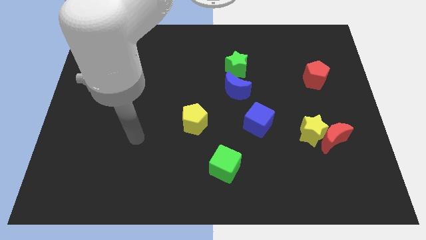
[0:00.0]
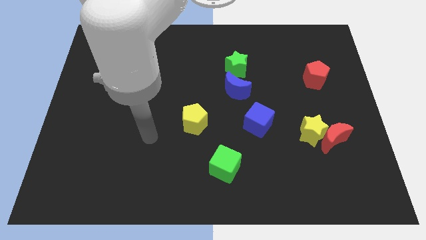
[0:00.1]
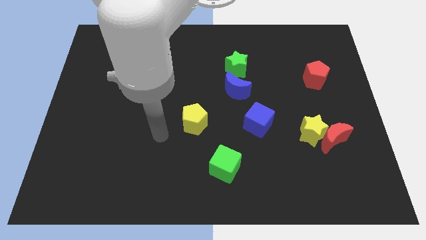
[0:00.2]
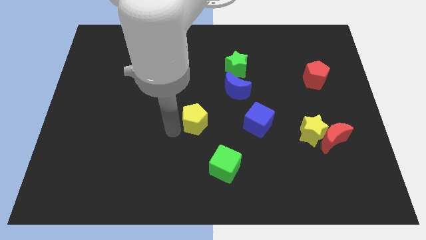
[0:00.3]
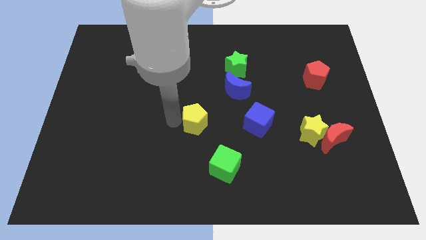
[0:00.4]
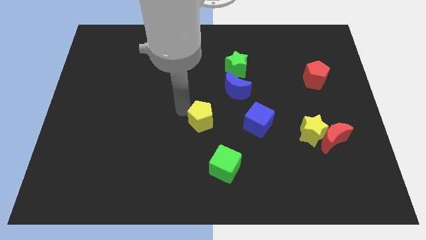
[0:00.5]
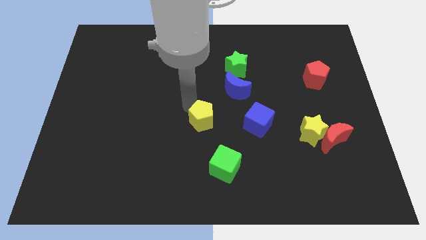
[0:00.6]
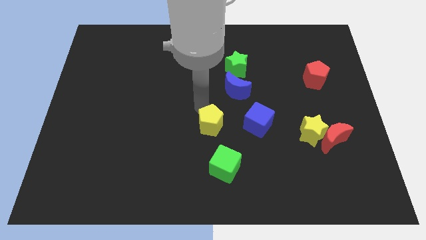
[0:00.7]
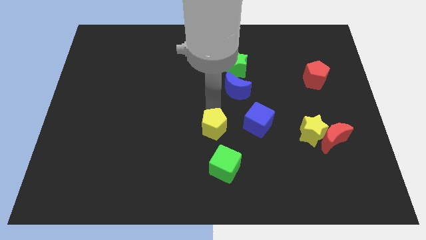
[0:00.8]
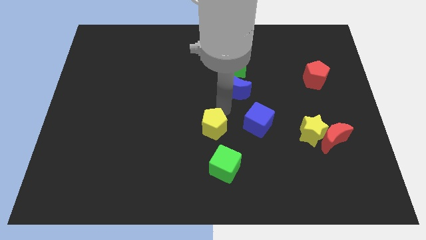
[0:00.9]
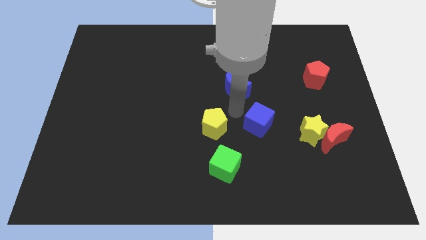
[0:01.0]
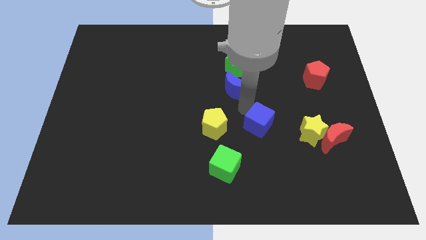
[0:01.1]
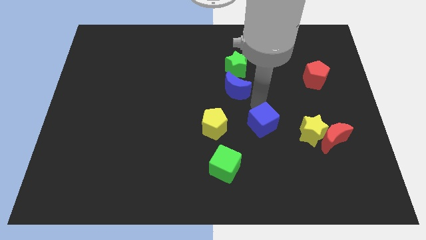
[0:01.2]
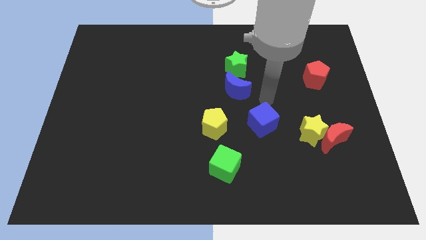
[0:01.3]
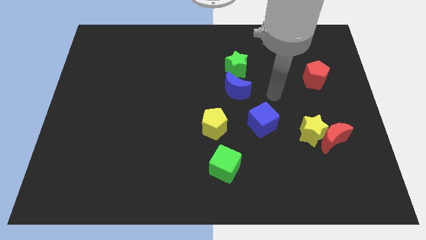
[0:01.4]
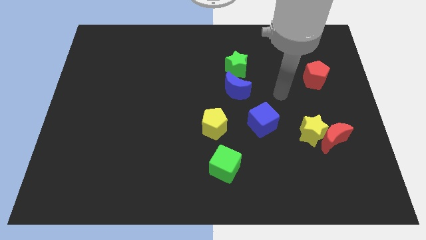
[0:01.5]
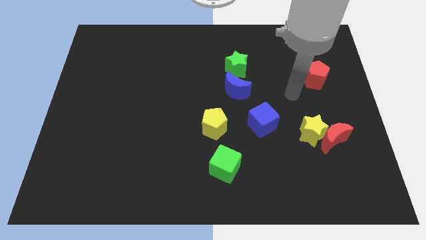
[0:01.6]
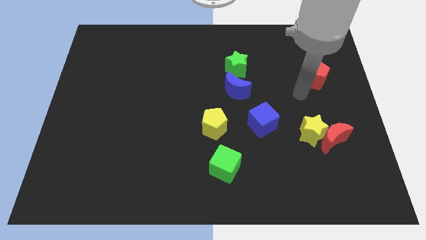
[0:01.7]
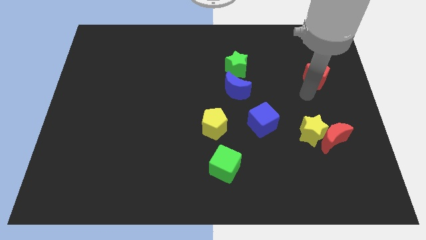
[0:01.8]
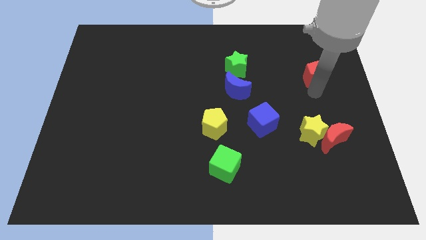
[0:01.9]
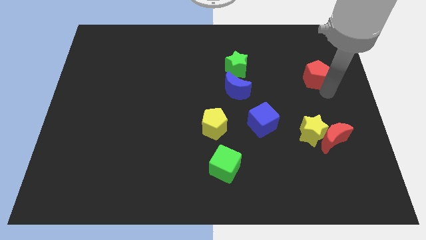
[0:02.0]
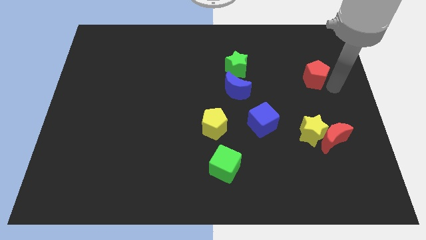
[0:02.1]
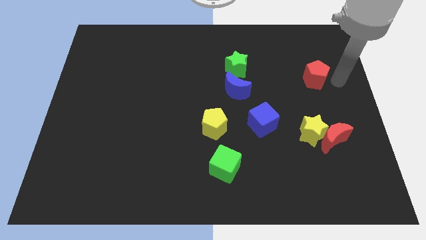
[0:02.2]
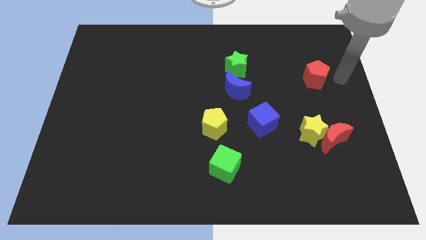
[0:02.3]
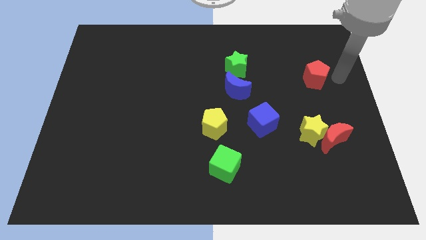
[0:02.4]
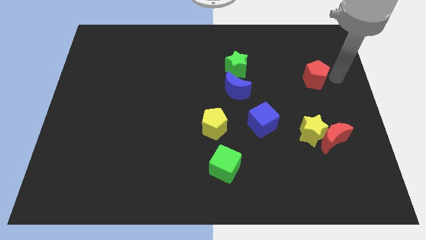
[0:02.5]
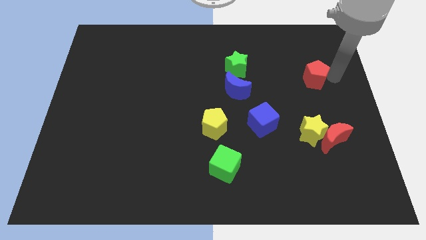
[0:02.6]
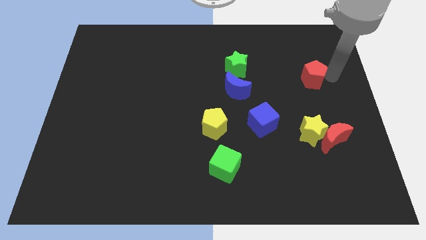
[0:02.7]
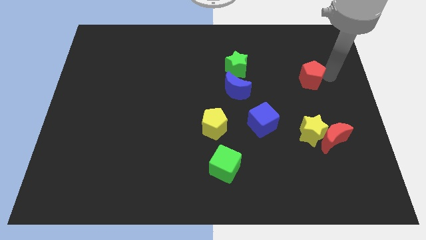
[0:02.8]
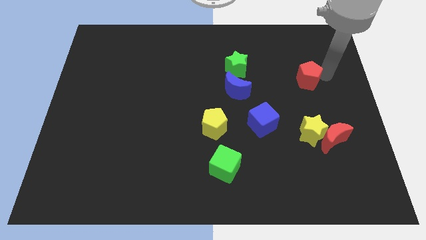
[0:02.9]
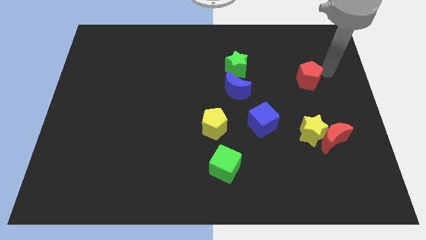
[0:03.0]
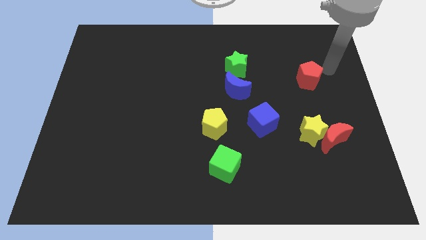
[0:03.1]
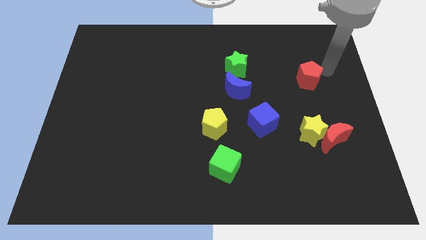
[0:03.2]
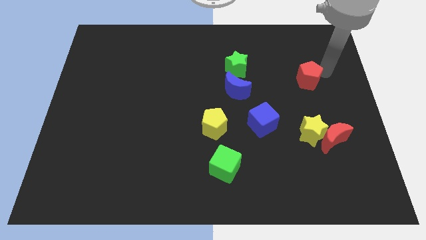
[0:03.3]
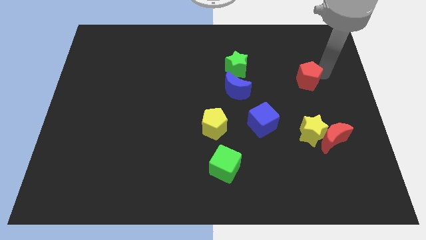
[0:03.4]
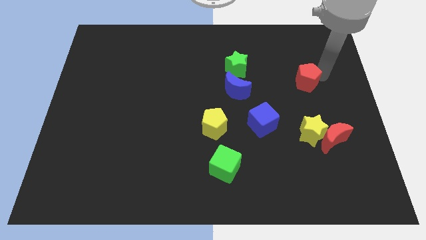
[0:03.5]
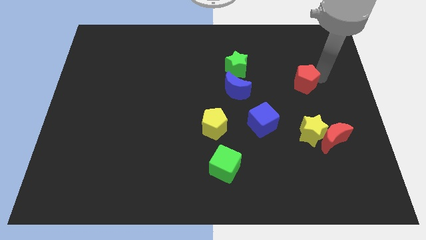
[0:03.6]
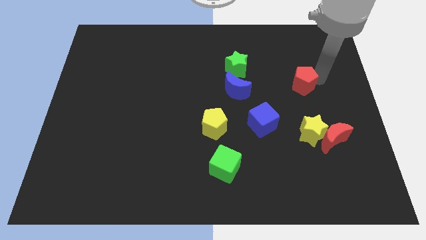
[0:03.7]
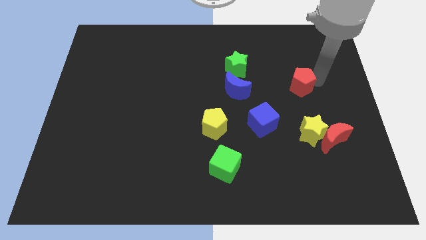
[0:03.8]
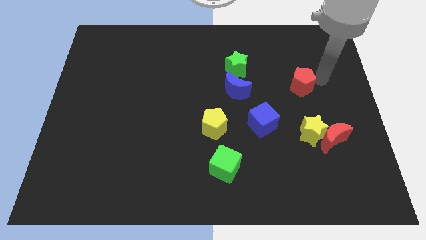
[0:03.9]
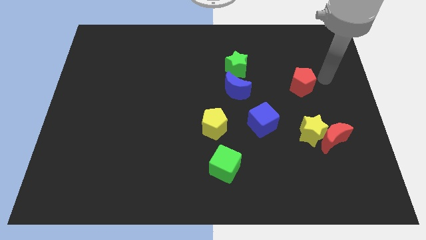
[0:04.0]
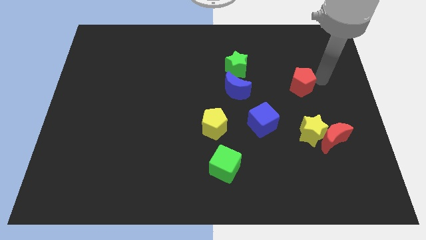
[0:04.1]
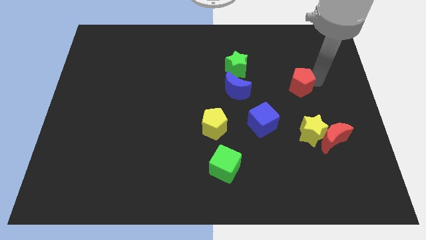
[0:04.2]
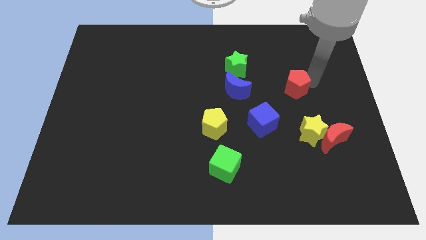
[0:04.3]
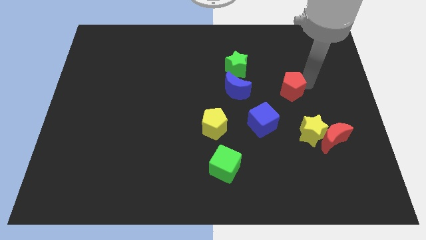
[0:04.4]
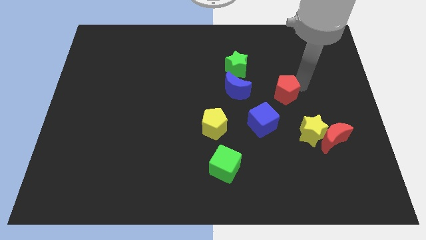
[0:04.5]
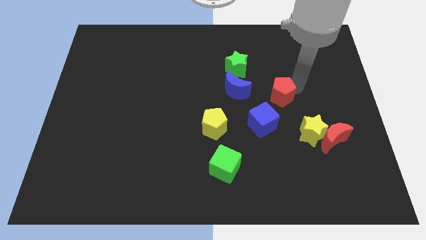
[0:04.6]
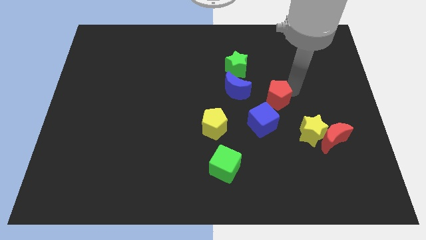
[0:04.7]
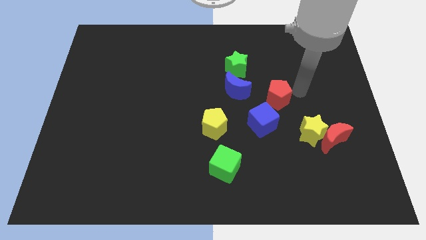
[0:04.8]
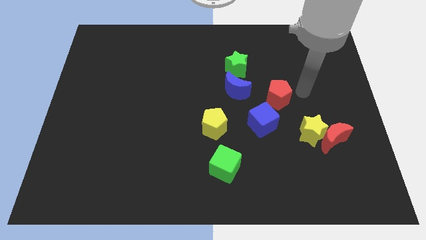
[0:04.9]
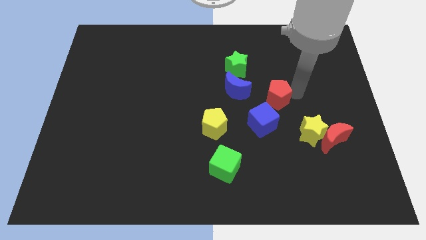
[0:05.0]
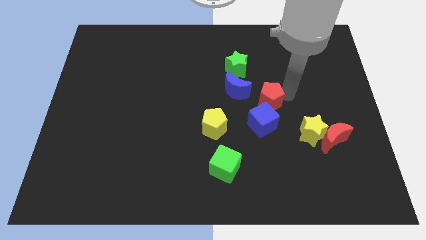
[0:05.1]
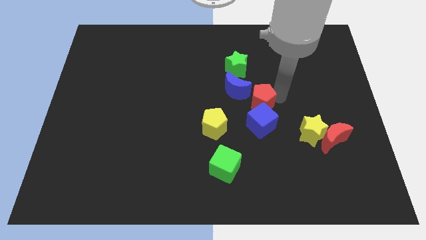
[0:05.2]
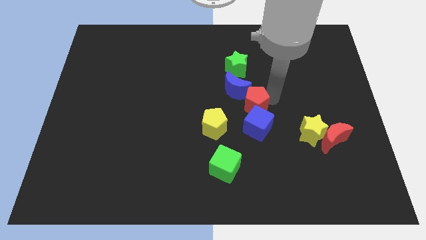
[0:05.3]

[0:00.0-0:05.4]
put the red pentagon diagonally up and to the left of the blue cube

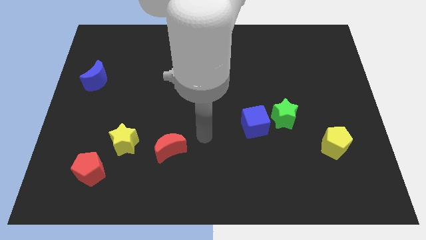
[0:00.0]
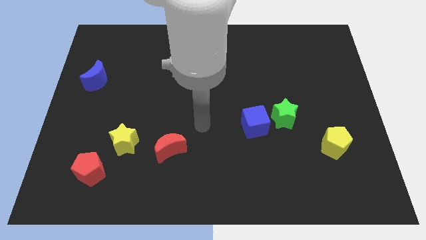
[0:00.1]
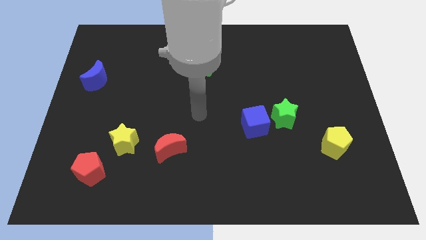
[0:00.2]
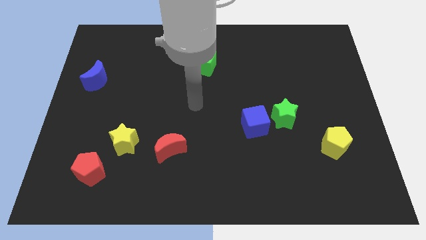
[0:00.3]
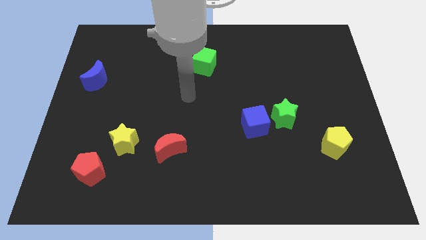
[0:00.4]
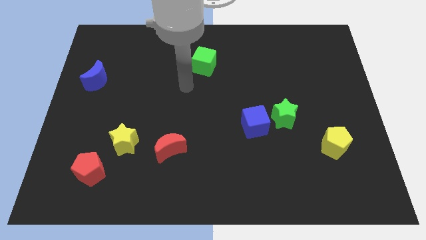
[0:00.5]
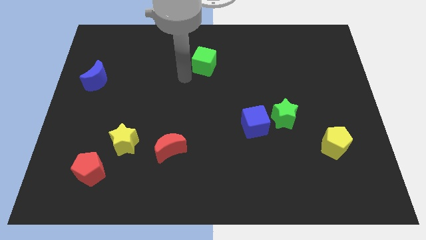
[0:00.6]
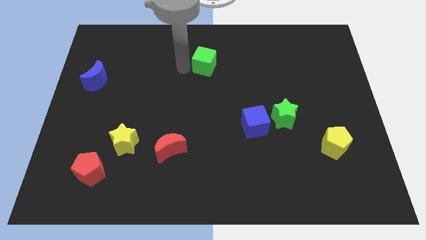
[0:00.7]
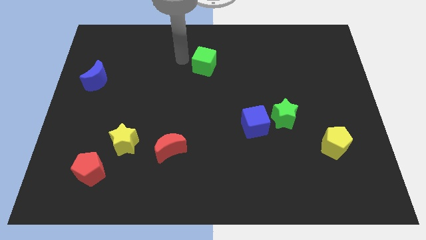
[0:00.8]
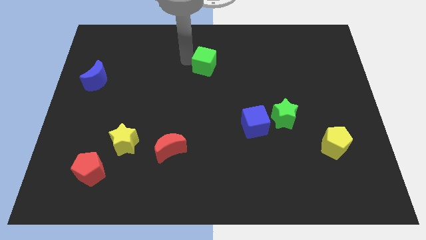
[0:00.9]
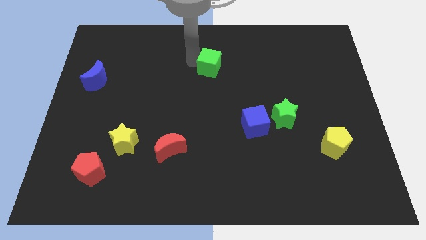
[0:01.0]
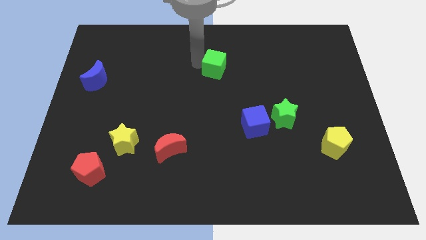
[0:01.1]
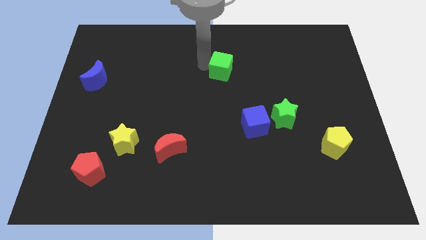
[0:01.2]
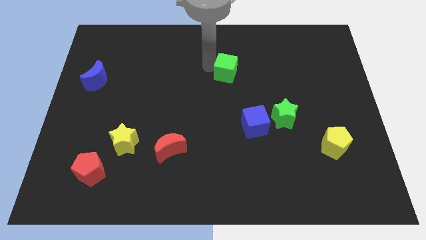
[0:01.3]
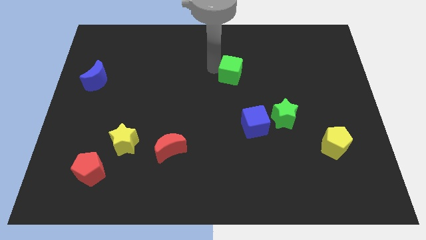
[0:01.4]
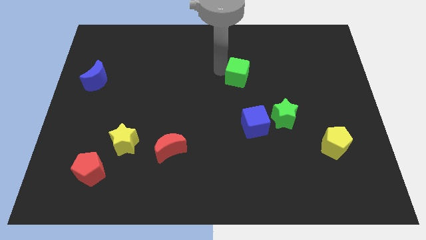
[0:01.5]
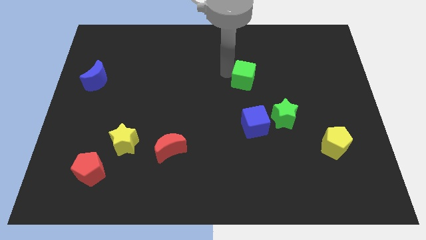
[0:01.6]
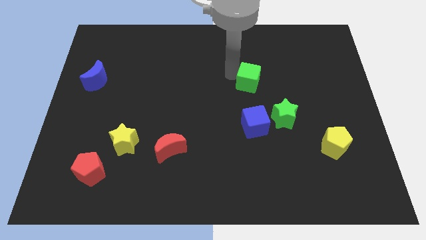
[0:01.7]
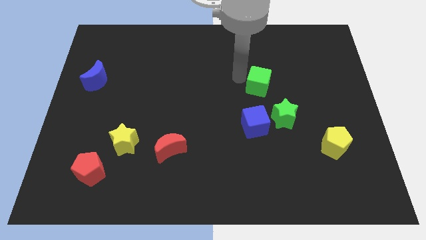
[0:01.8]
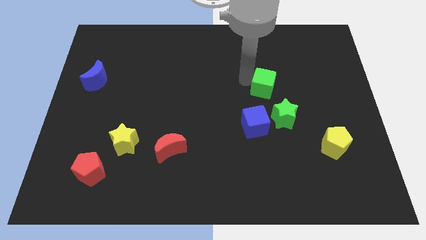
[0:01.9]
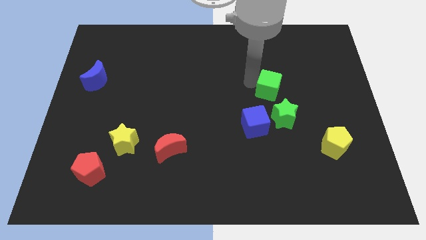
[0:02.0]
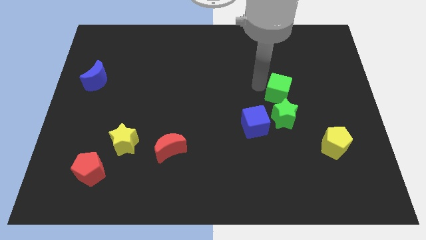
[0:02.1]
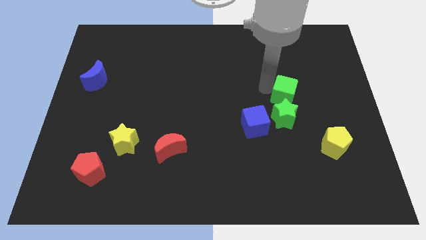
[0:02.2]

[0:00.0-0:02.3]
slide the green cube to the top right side of the green star
